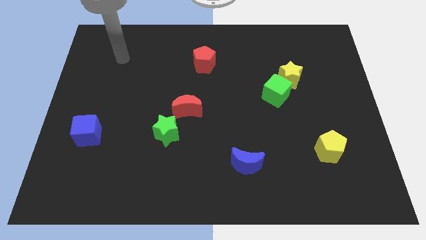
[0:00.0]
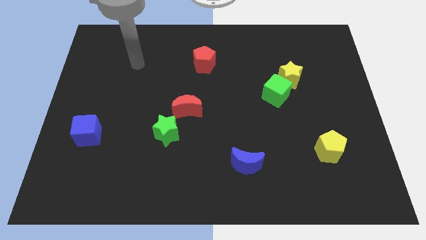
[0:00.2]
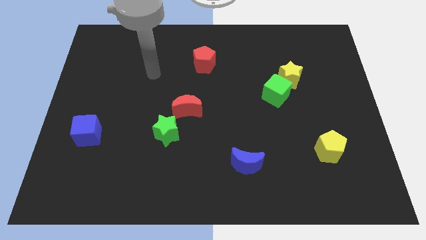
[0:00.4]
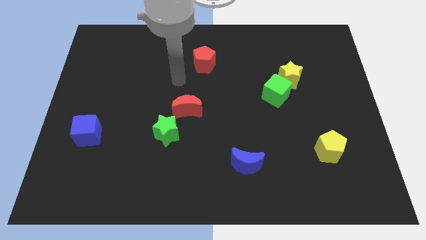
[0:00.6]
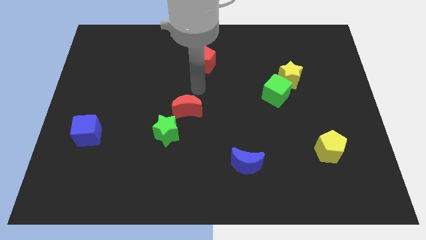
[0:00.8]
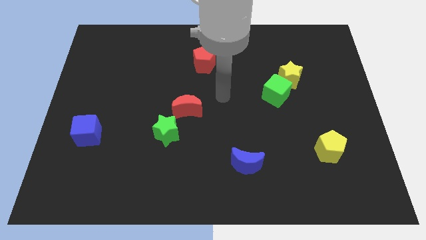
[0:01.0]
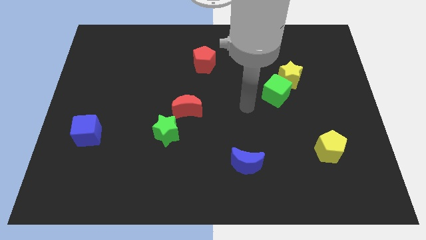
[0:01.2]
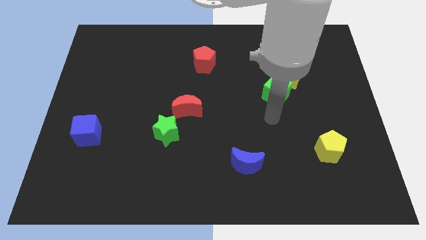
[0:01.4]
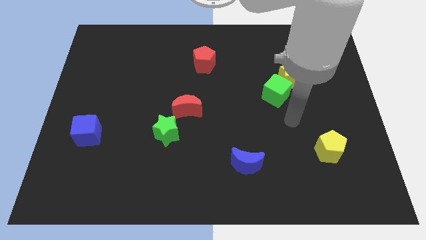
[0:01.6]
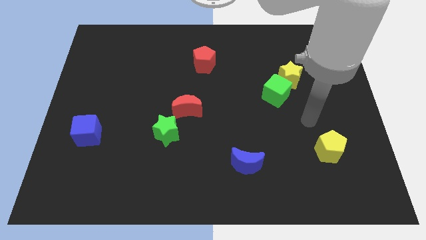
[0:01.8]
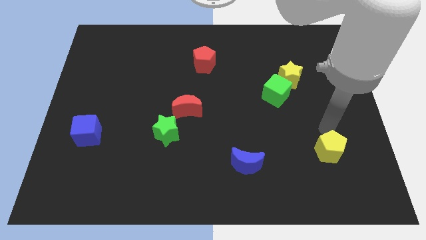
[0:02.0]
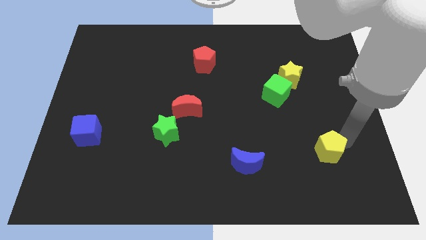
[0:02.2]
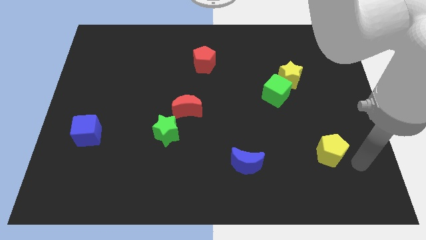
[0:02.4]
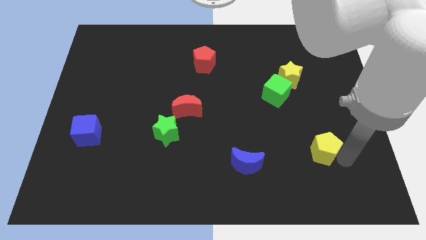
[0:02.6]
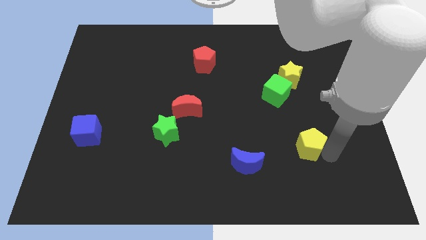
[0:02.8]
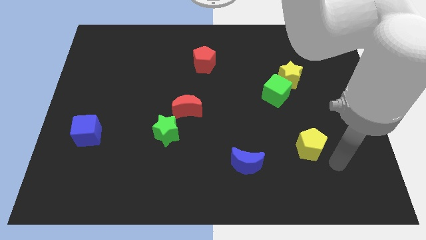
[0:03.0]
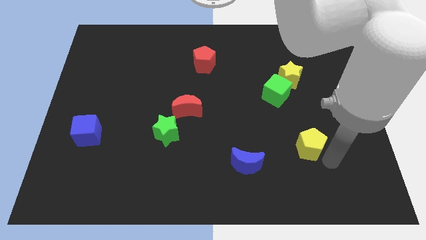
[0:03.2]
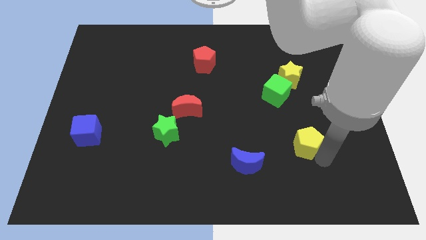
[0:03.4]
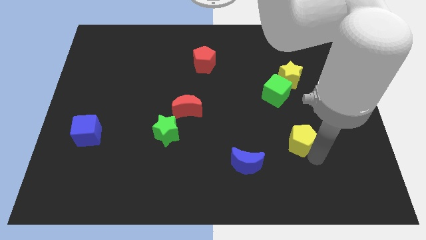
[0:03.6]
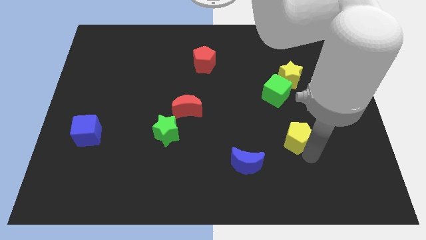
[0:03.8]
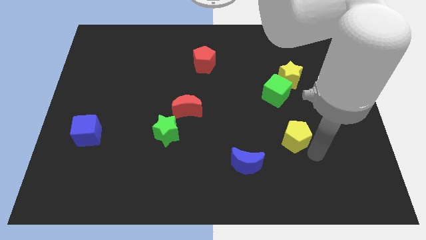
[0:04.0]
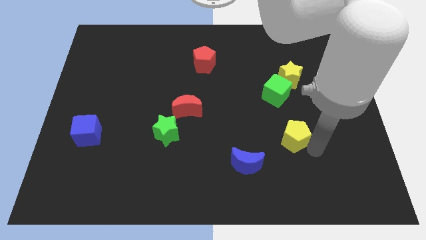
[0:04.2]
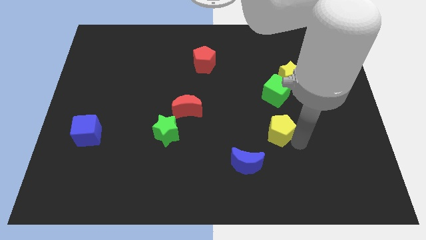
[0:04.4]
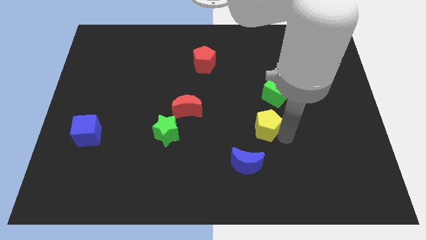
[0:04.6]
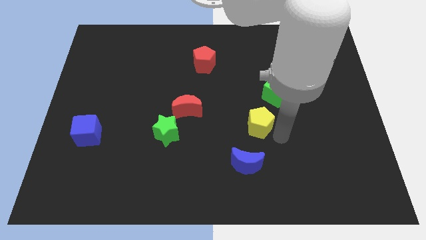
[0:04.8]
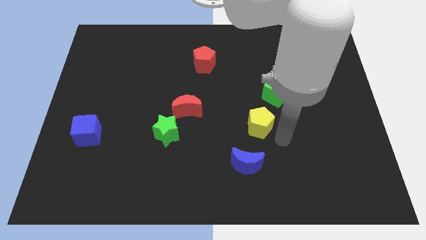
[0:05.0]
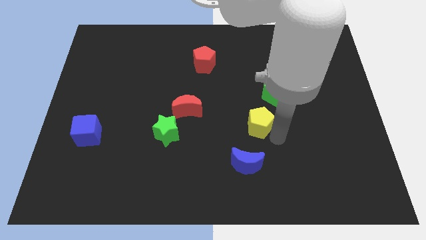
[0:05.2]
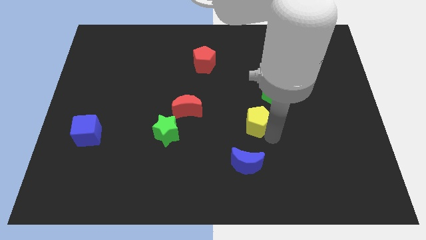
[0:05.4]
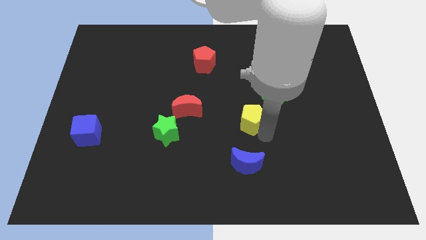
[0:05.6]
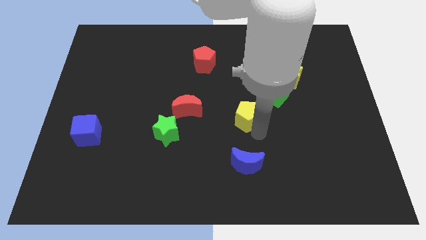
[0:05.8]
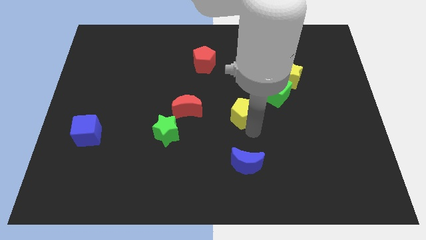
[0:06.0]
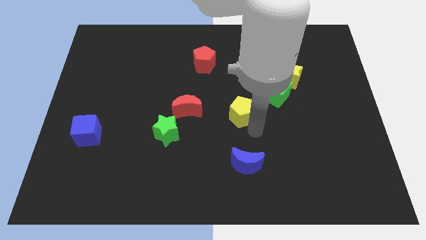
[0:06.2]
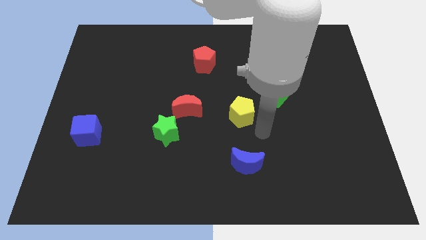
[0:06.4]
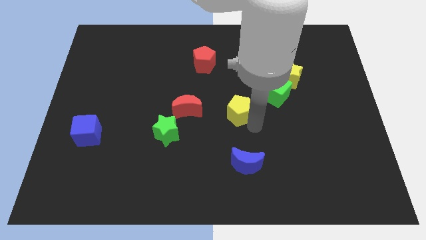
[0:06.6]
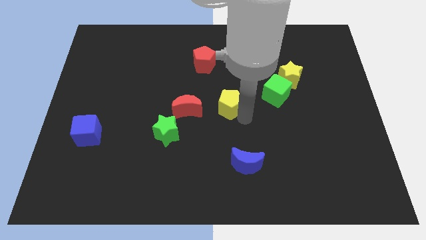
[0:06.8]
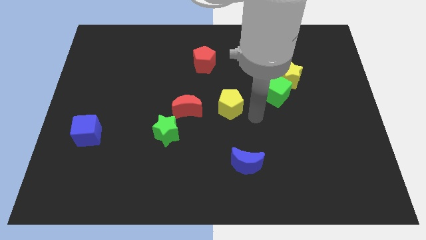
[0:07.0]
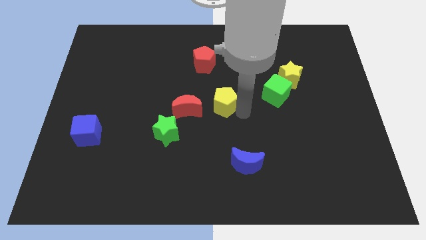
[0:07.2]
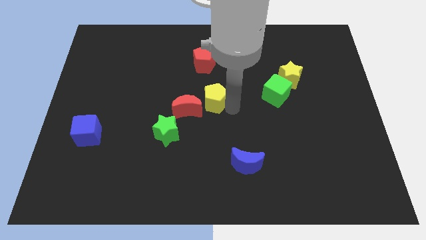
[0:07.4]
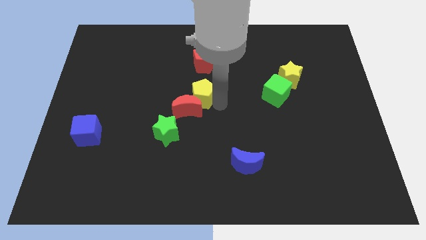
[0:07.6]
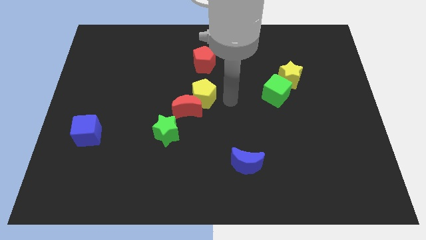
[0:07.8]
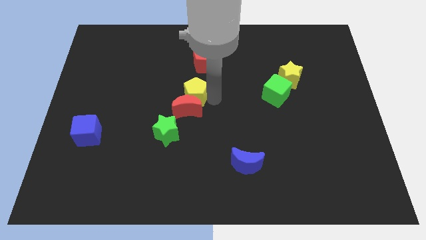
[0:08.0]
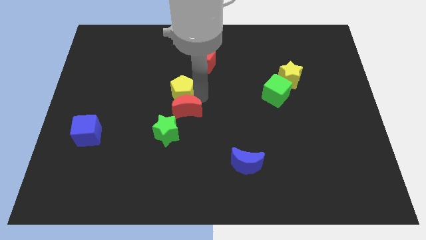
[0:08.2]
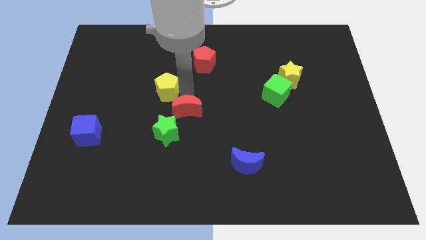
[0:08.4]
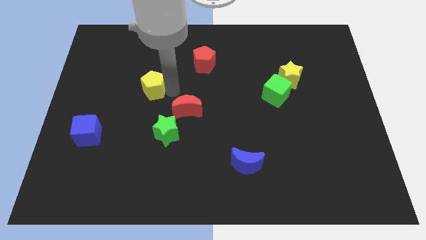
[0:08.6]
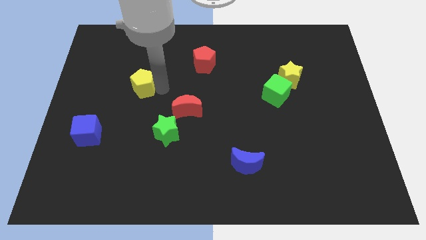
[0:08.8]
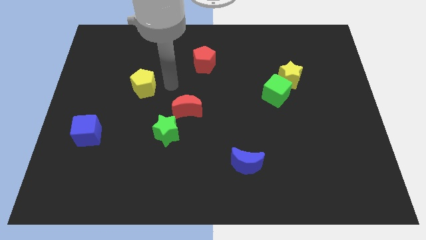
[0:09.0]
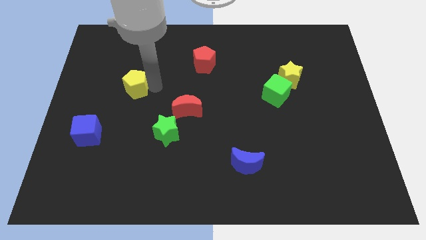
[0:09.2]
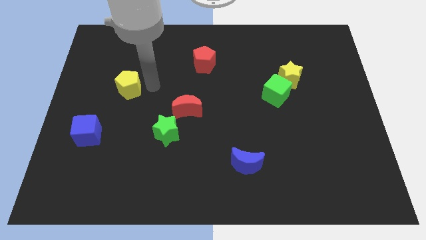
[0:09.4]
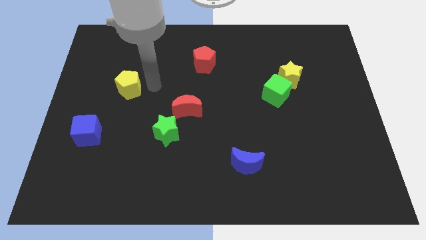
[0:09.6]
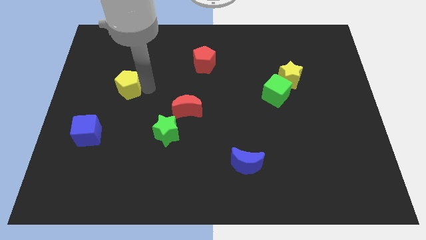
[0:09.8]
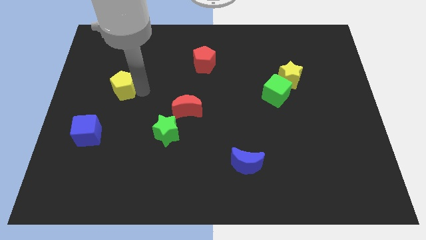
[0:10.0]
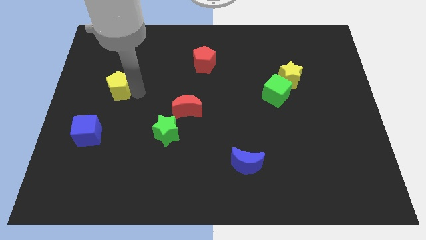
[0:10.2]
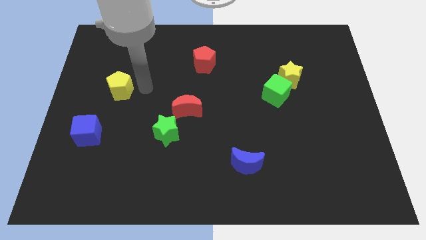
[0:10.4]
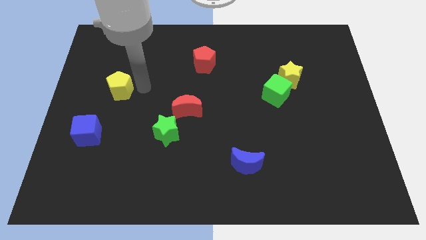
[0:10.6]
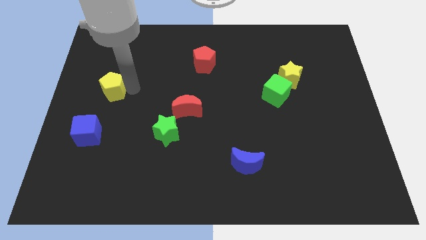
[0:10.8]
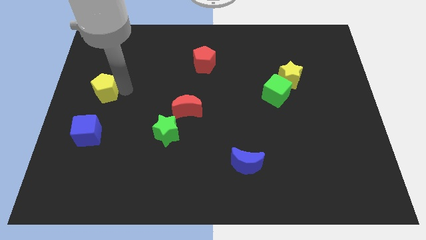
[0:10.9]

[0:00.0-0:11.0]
put the yellow pentagon to the center left

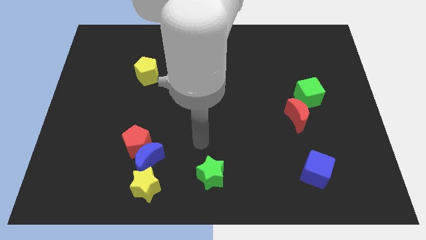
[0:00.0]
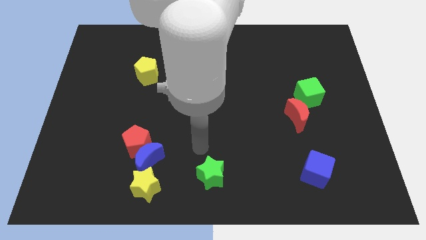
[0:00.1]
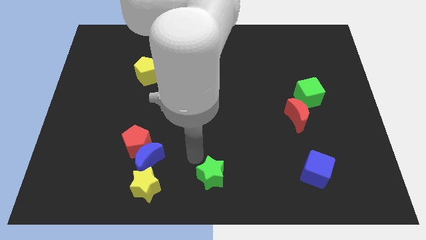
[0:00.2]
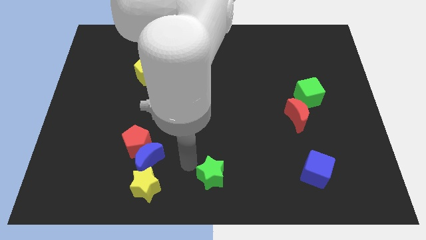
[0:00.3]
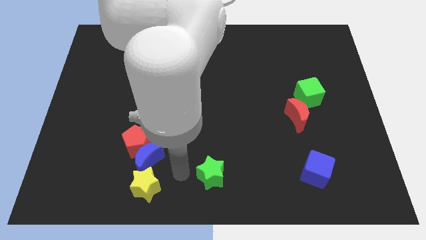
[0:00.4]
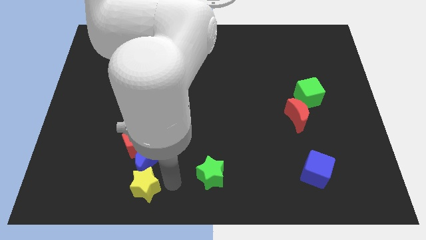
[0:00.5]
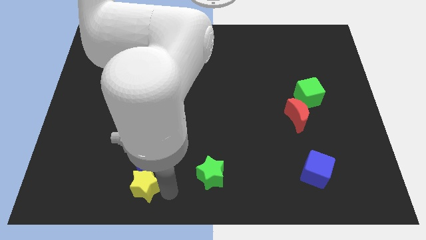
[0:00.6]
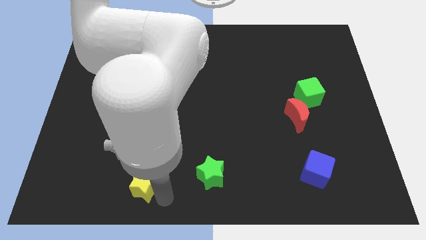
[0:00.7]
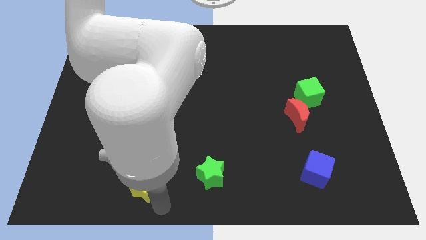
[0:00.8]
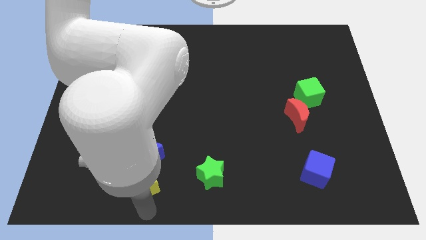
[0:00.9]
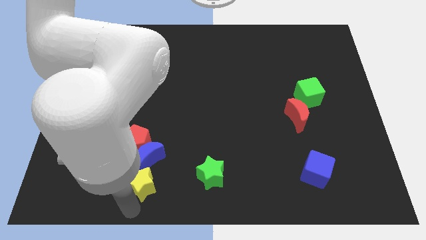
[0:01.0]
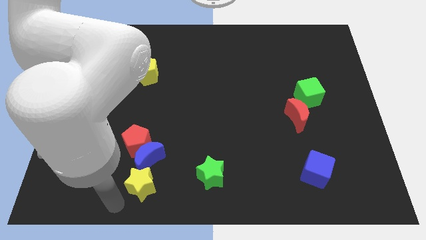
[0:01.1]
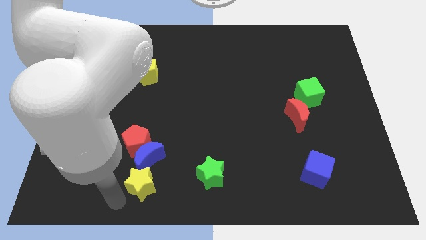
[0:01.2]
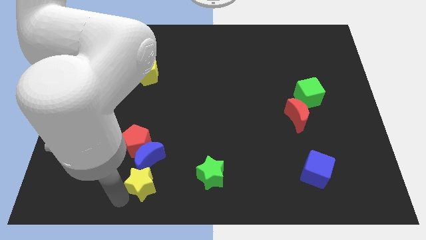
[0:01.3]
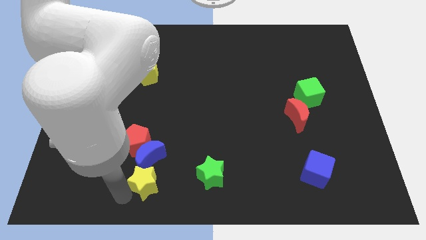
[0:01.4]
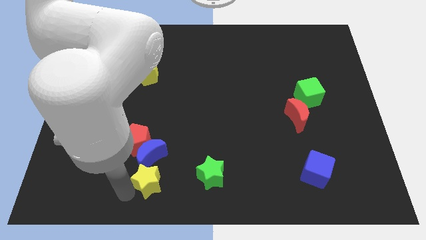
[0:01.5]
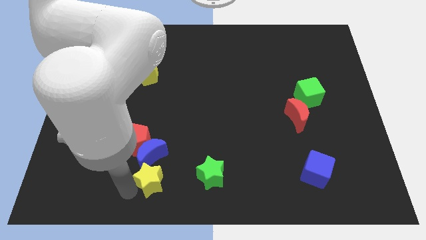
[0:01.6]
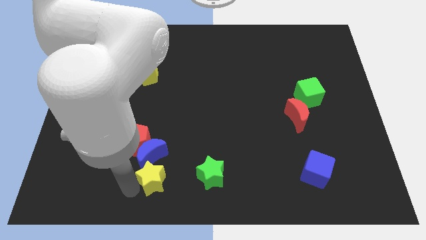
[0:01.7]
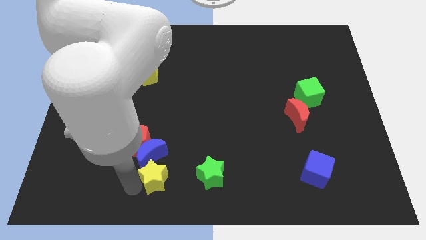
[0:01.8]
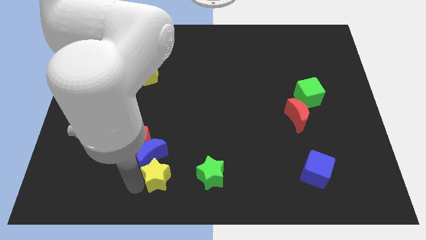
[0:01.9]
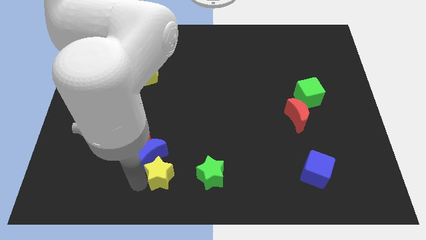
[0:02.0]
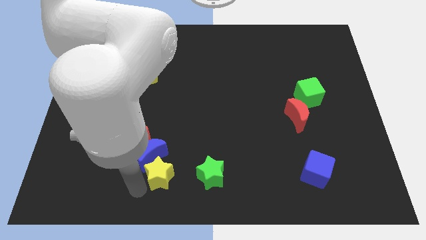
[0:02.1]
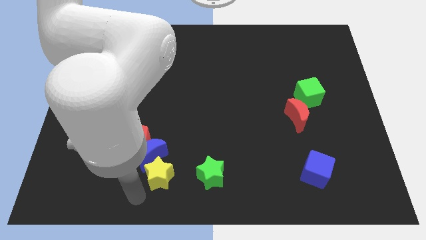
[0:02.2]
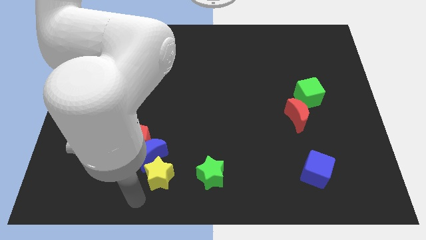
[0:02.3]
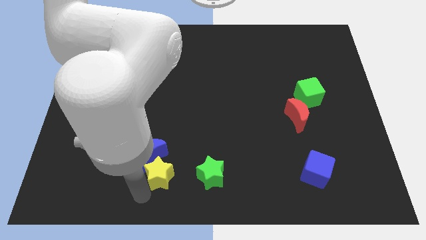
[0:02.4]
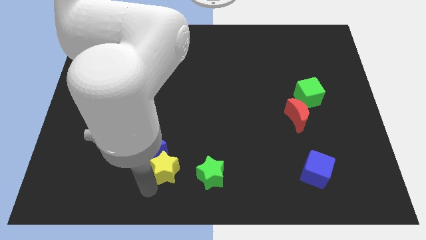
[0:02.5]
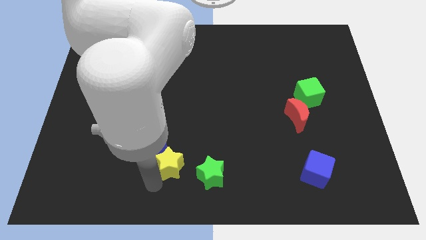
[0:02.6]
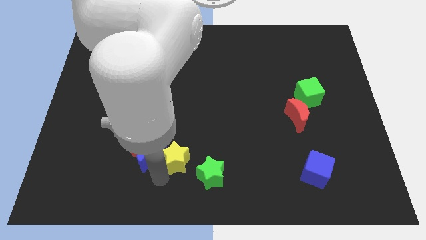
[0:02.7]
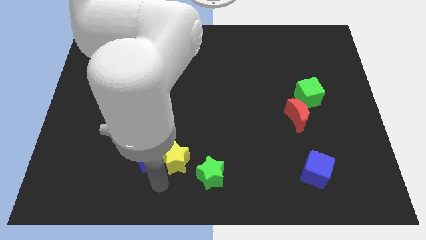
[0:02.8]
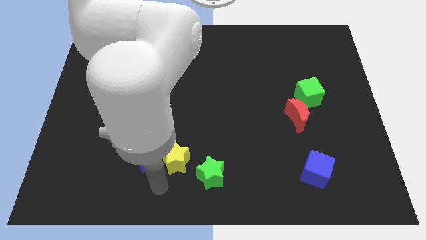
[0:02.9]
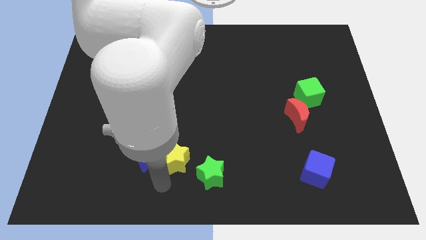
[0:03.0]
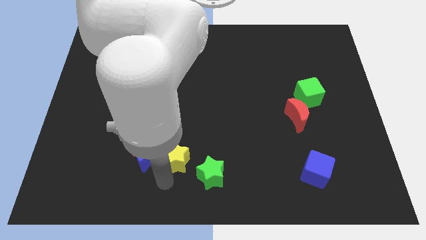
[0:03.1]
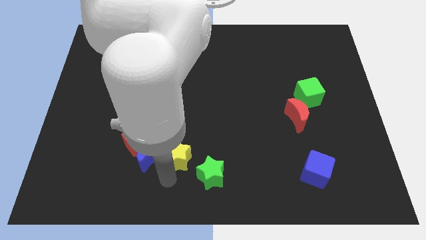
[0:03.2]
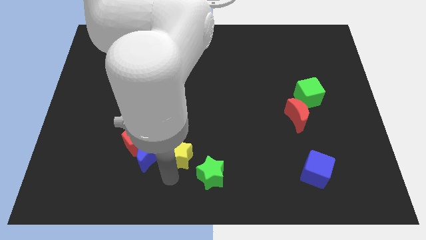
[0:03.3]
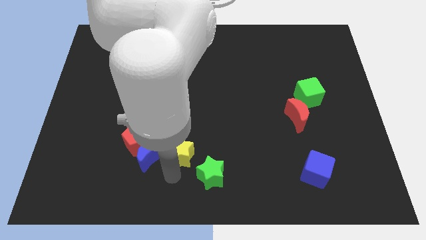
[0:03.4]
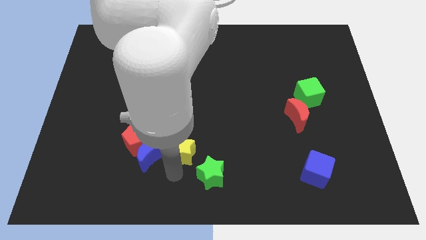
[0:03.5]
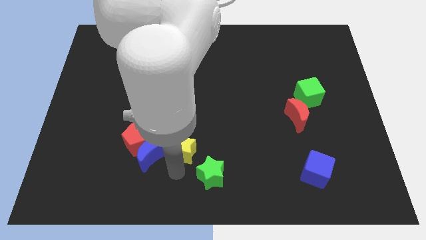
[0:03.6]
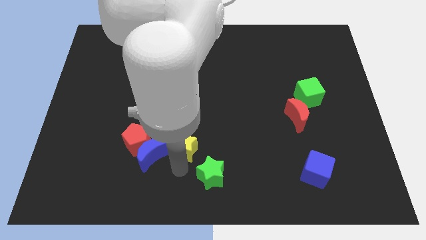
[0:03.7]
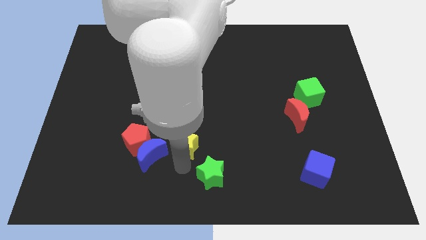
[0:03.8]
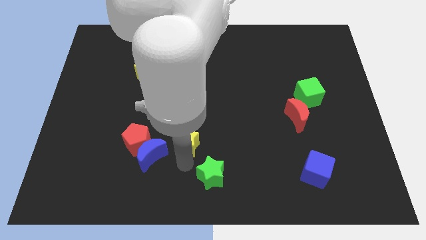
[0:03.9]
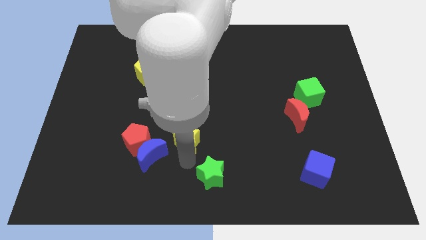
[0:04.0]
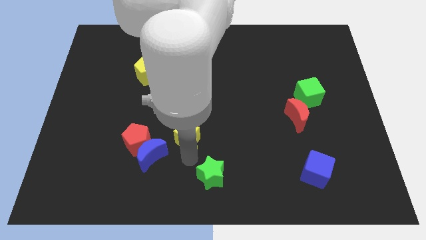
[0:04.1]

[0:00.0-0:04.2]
move the yellow star to the middle
